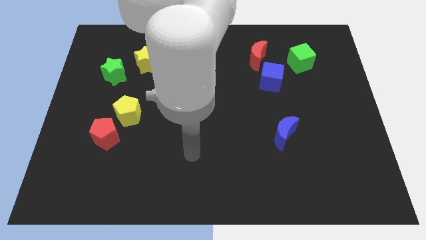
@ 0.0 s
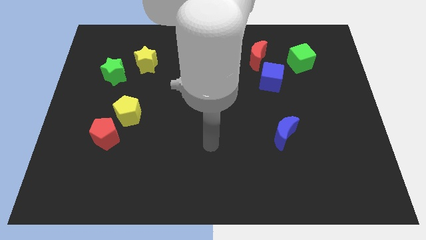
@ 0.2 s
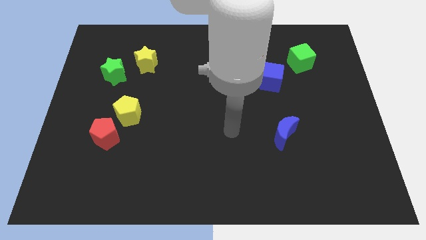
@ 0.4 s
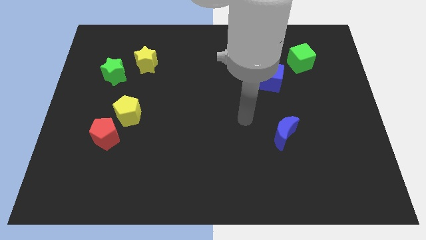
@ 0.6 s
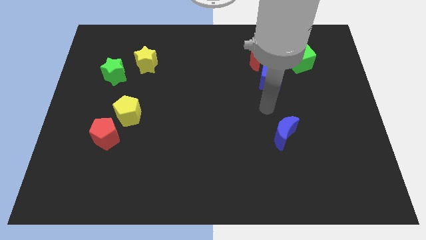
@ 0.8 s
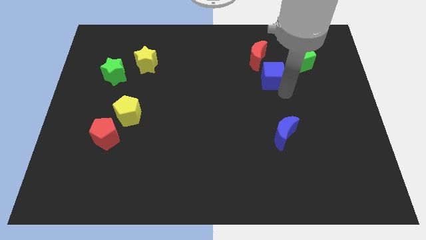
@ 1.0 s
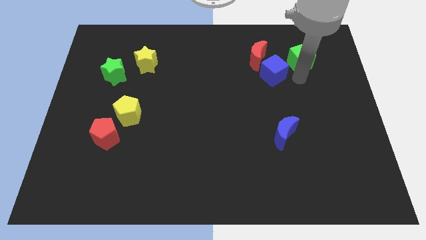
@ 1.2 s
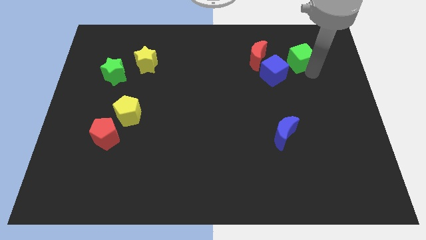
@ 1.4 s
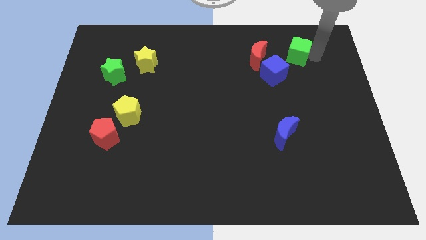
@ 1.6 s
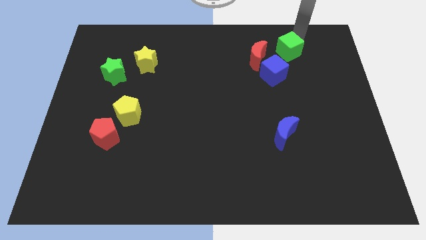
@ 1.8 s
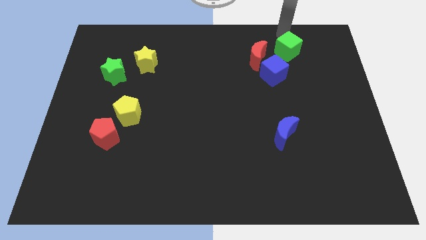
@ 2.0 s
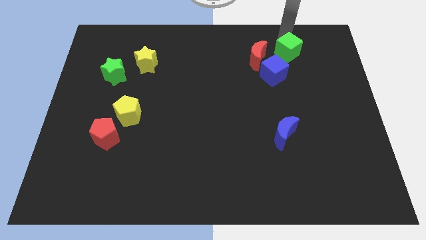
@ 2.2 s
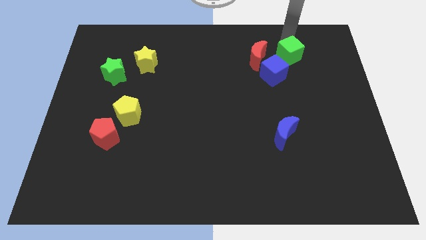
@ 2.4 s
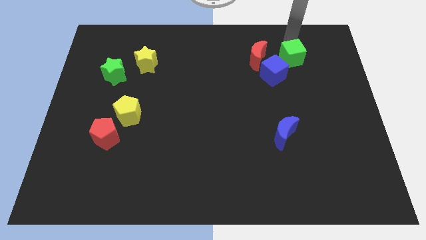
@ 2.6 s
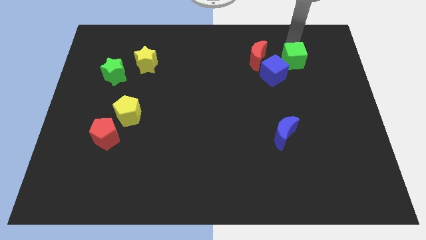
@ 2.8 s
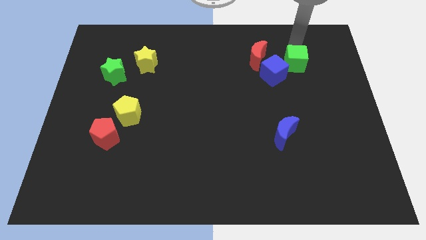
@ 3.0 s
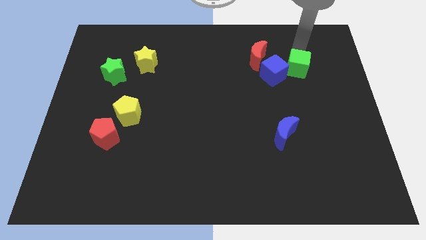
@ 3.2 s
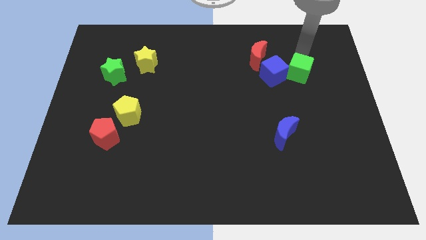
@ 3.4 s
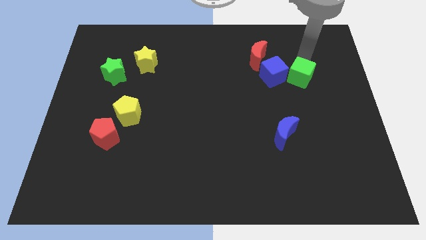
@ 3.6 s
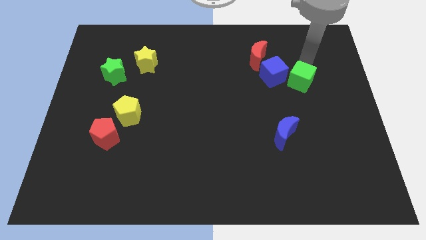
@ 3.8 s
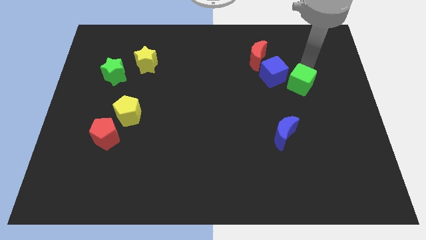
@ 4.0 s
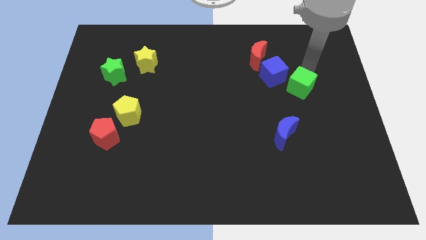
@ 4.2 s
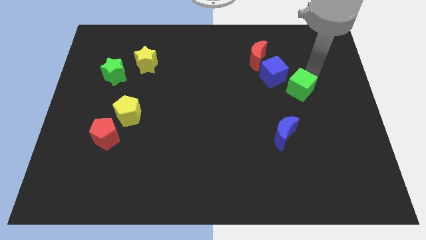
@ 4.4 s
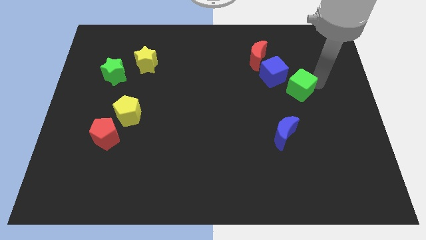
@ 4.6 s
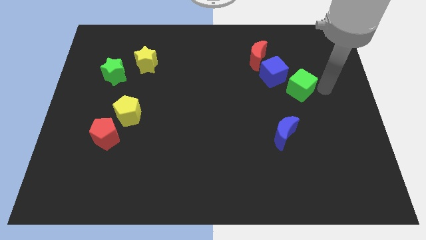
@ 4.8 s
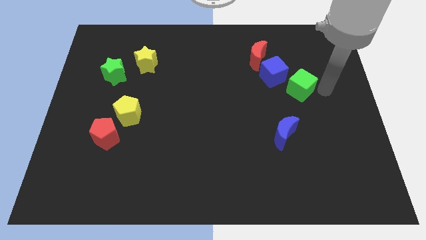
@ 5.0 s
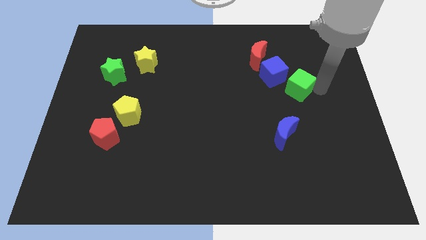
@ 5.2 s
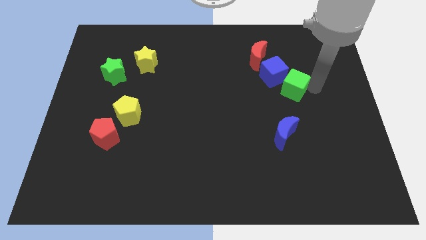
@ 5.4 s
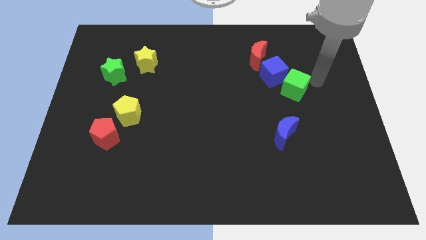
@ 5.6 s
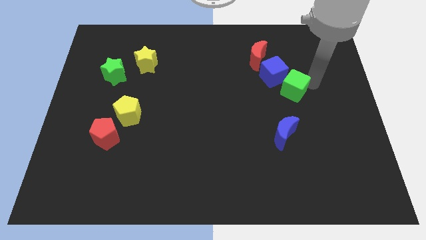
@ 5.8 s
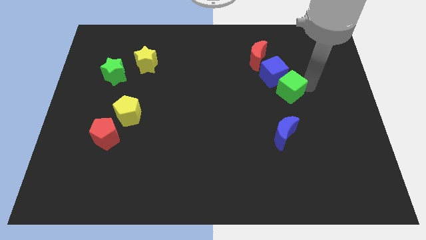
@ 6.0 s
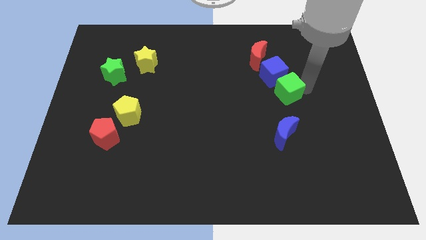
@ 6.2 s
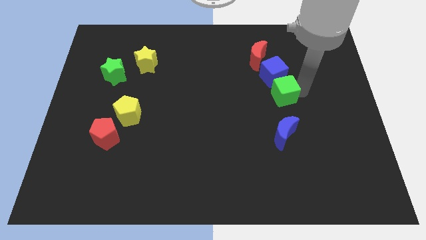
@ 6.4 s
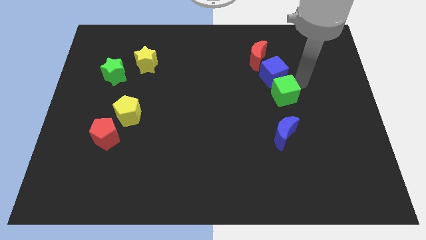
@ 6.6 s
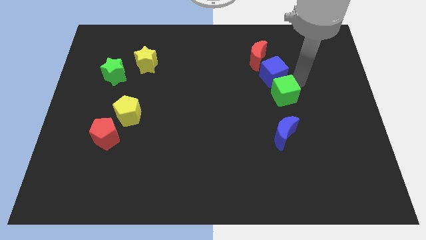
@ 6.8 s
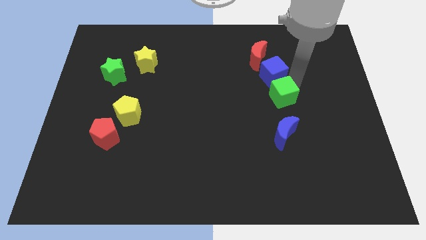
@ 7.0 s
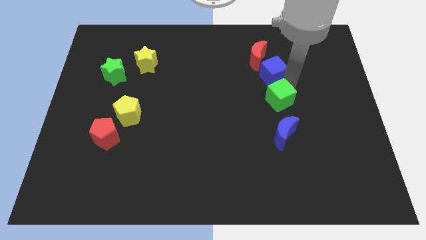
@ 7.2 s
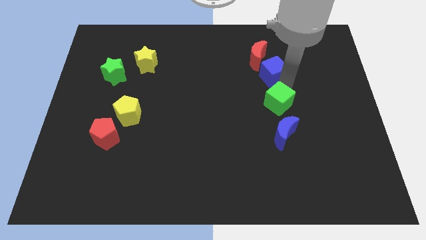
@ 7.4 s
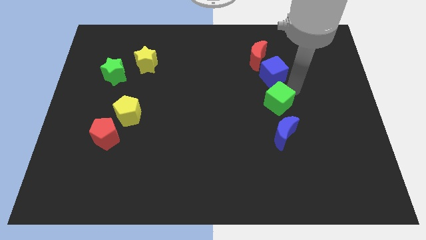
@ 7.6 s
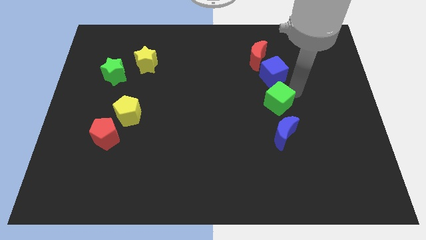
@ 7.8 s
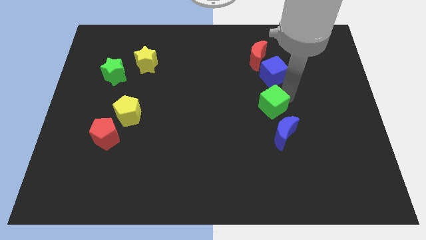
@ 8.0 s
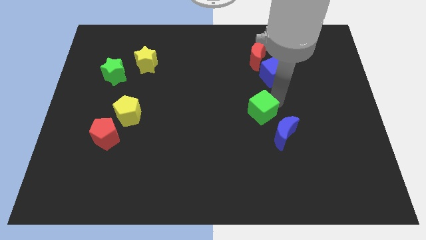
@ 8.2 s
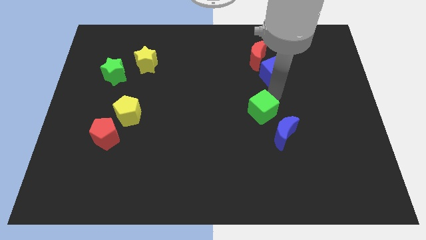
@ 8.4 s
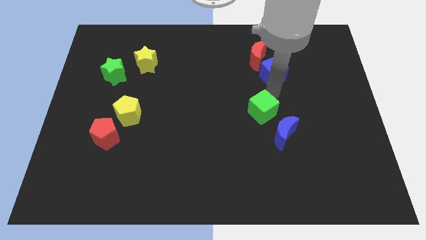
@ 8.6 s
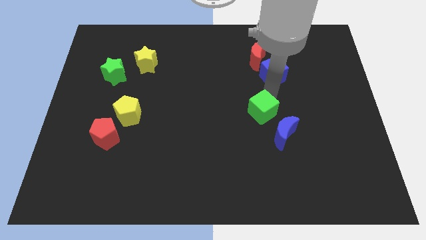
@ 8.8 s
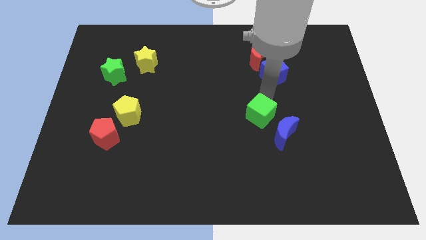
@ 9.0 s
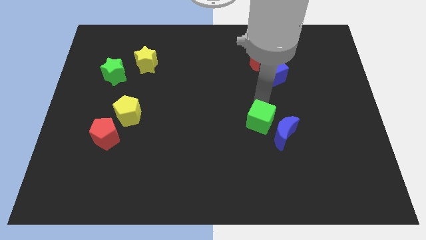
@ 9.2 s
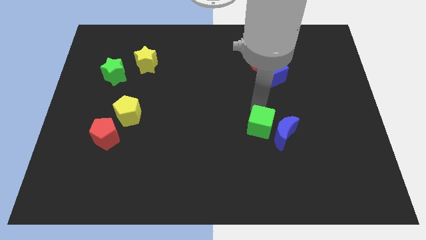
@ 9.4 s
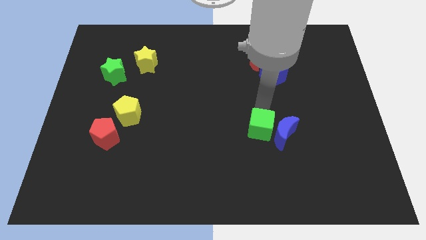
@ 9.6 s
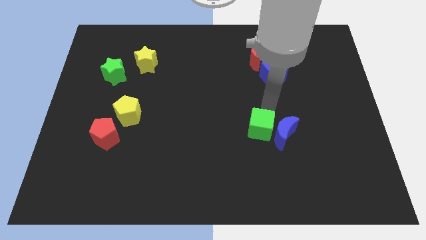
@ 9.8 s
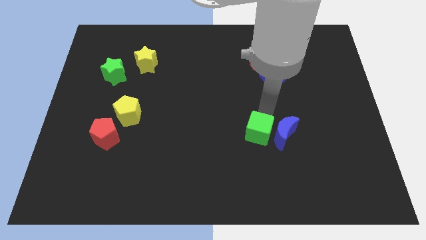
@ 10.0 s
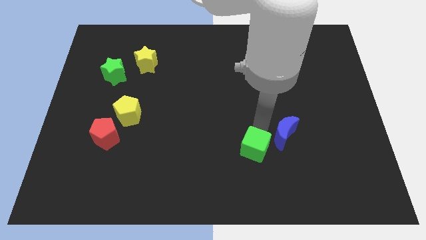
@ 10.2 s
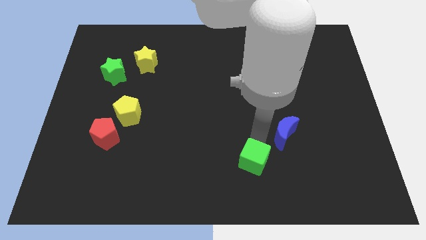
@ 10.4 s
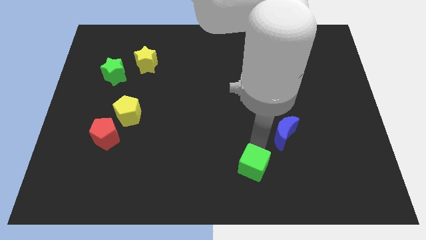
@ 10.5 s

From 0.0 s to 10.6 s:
push the green cube to the bottom
